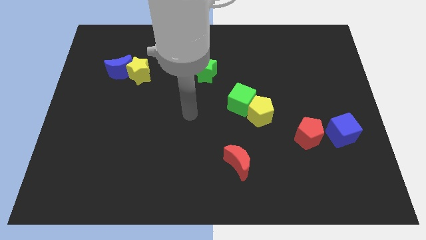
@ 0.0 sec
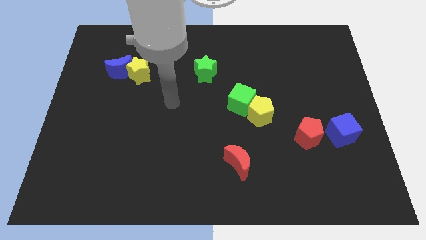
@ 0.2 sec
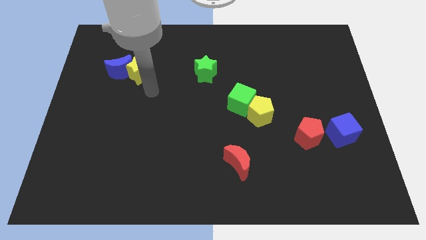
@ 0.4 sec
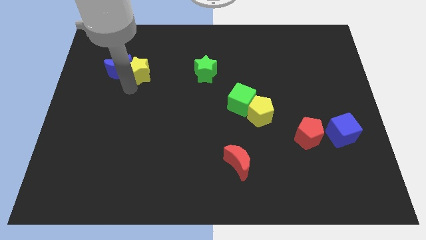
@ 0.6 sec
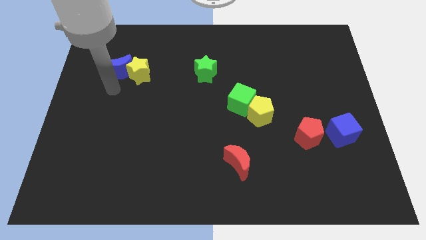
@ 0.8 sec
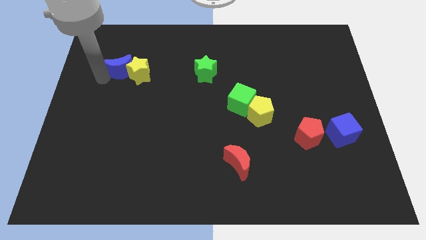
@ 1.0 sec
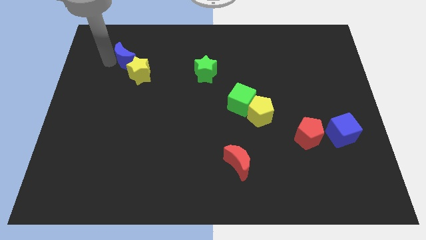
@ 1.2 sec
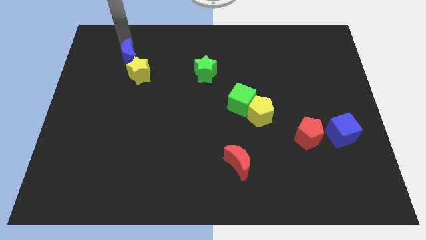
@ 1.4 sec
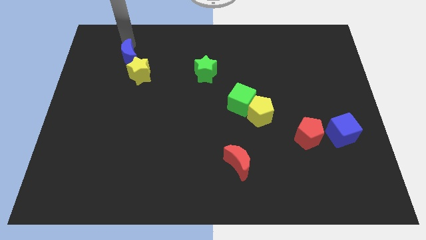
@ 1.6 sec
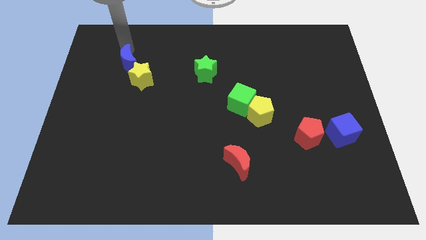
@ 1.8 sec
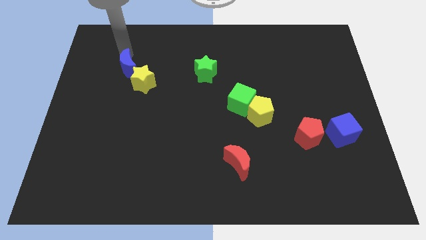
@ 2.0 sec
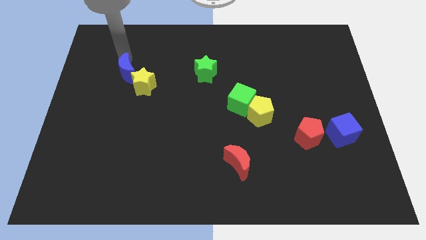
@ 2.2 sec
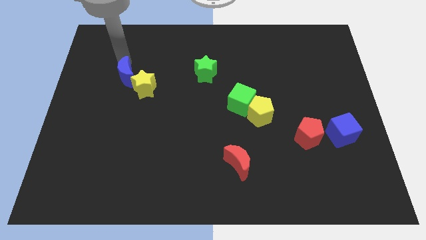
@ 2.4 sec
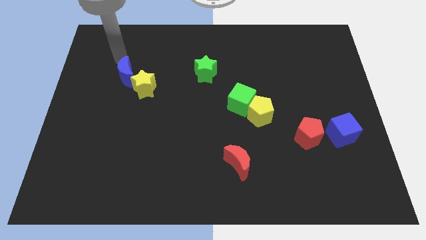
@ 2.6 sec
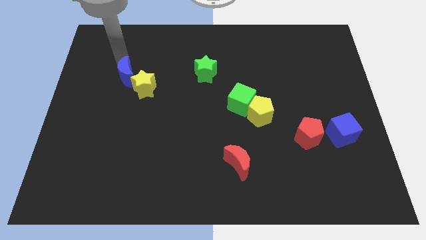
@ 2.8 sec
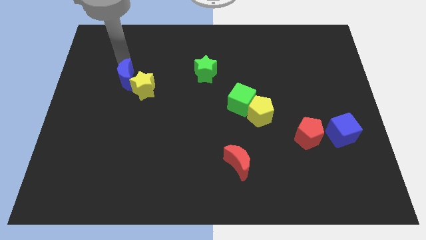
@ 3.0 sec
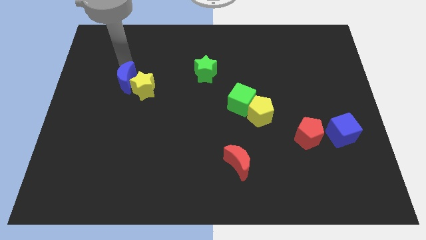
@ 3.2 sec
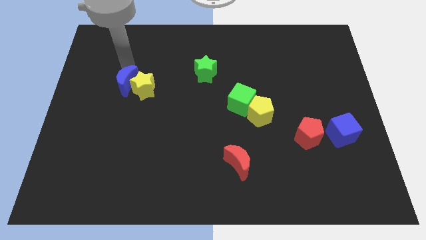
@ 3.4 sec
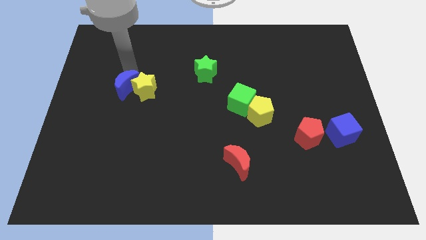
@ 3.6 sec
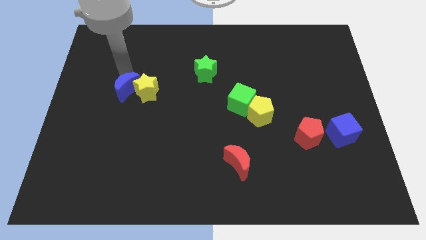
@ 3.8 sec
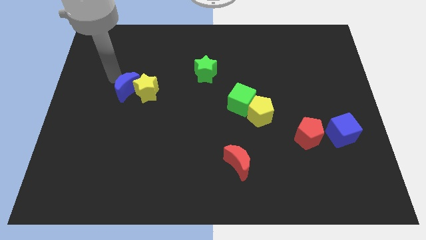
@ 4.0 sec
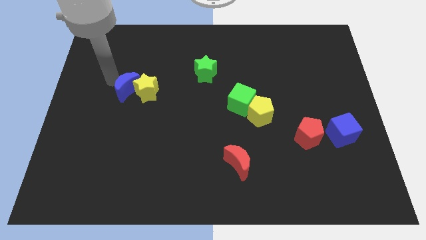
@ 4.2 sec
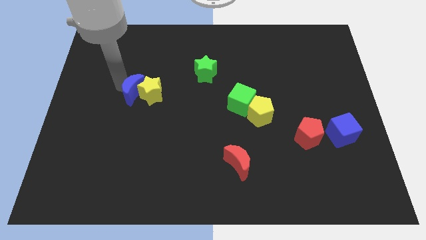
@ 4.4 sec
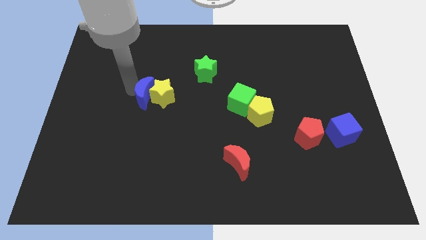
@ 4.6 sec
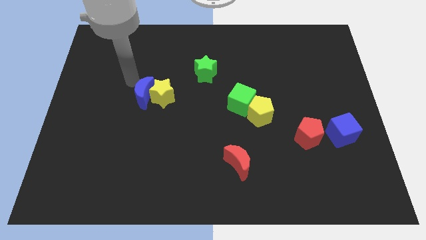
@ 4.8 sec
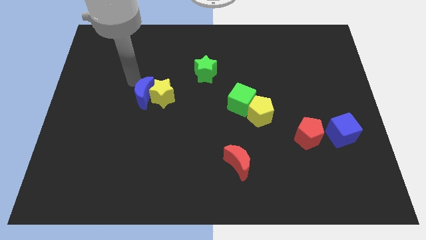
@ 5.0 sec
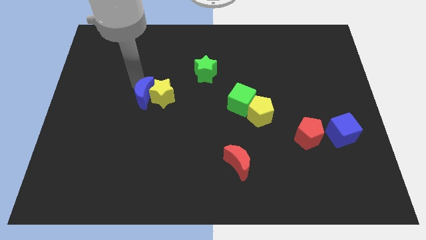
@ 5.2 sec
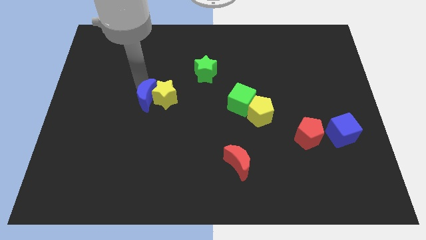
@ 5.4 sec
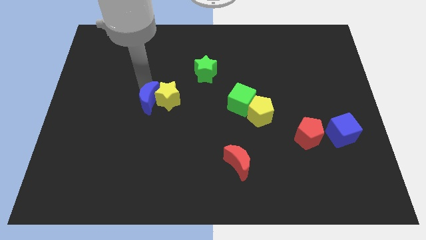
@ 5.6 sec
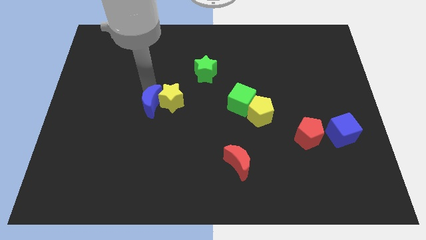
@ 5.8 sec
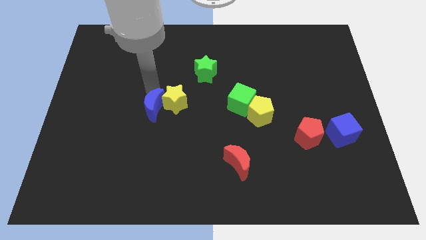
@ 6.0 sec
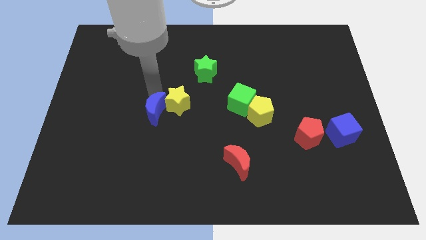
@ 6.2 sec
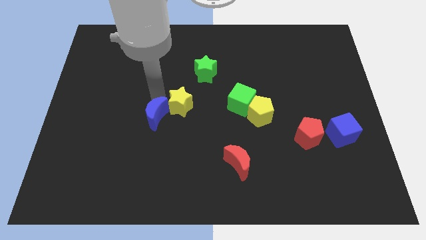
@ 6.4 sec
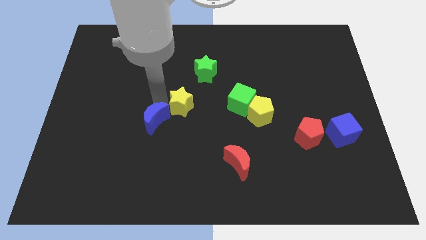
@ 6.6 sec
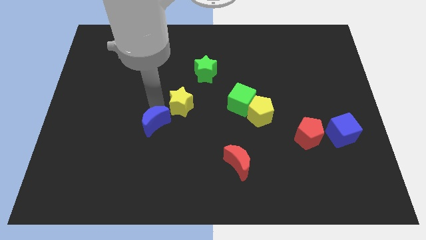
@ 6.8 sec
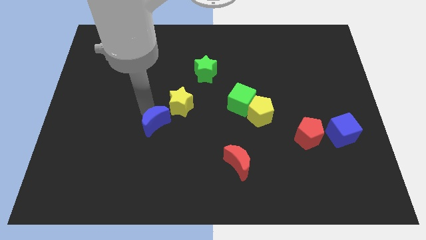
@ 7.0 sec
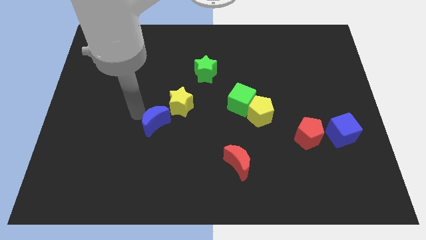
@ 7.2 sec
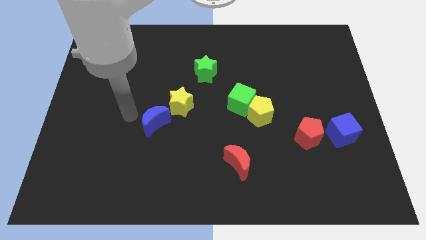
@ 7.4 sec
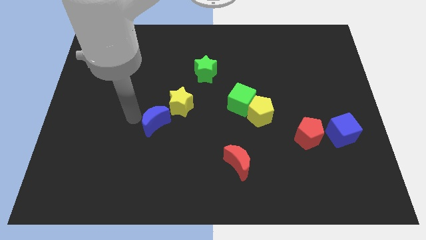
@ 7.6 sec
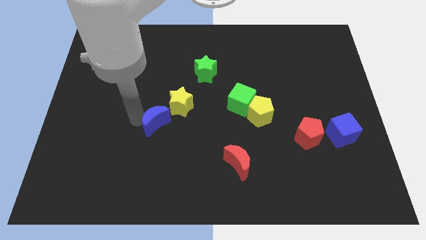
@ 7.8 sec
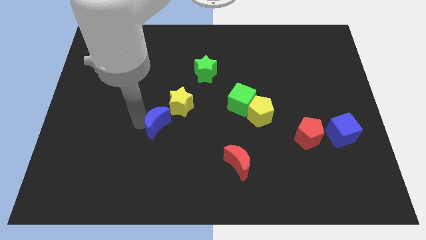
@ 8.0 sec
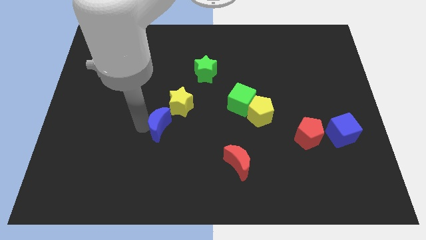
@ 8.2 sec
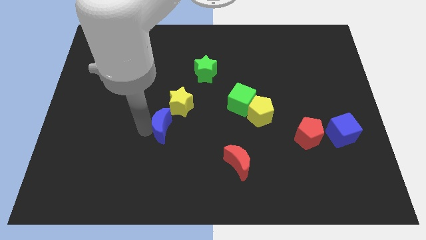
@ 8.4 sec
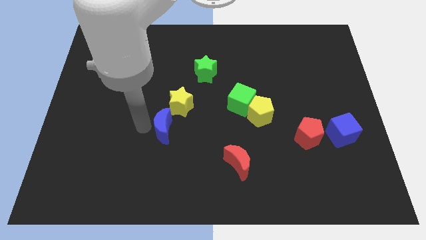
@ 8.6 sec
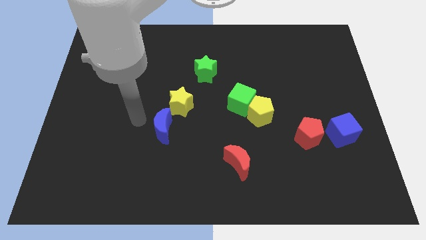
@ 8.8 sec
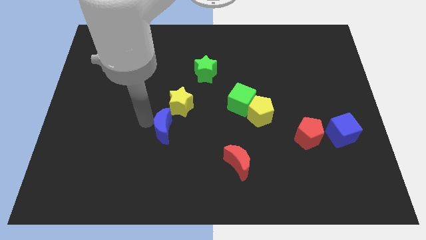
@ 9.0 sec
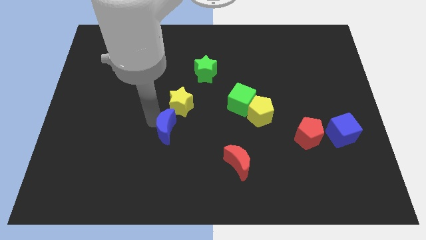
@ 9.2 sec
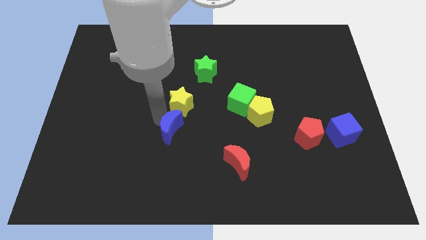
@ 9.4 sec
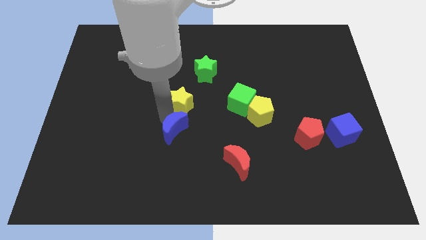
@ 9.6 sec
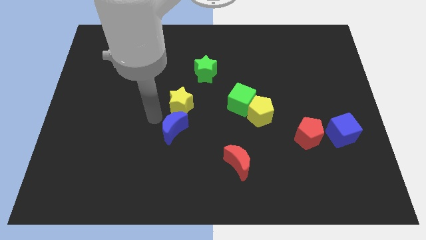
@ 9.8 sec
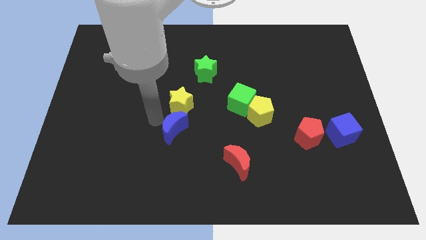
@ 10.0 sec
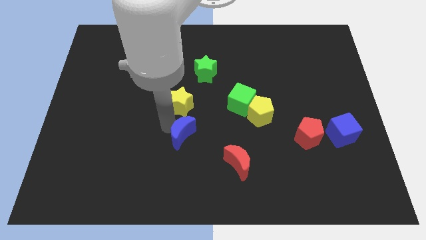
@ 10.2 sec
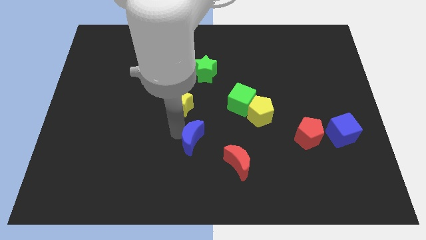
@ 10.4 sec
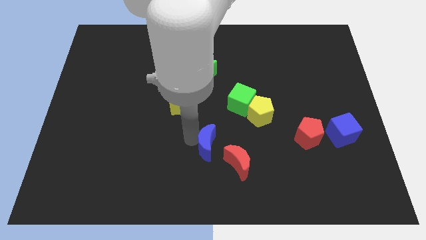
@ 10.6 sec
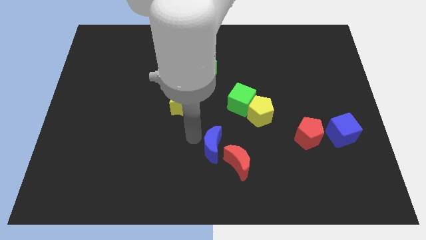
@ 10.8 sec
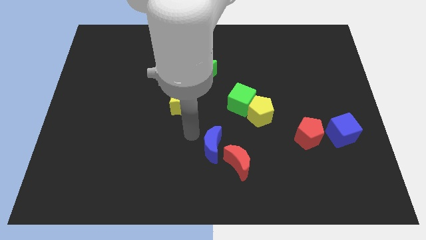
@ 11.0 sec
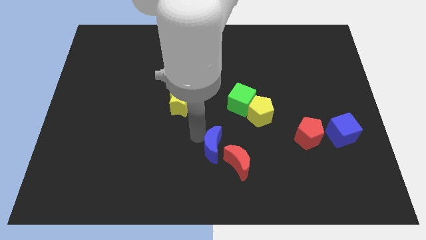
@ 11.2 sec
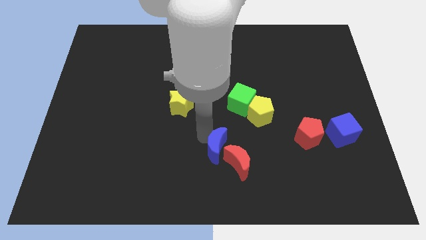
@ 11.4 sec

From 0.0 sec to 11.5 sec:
slide the blue moon to the red moon

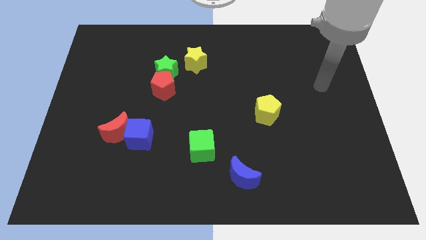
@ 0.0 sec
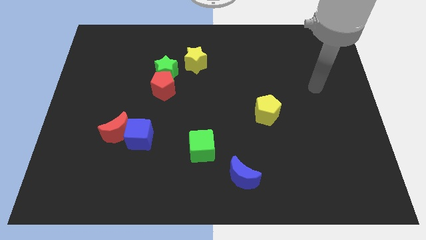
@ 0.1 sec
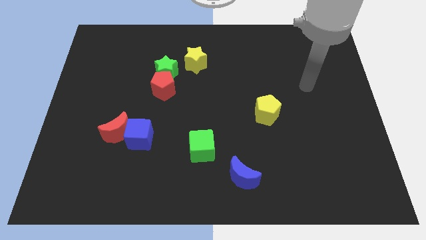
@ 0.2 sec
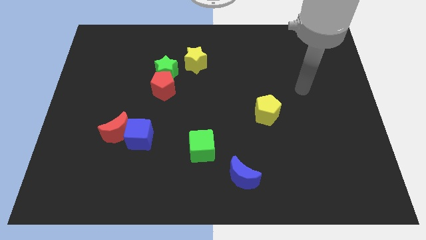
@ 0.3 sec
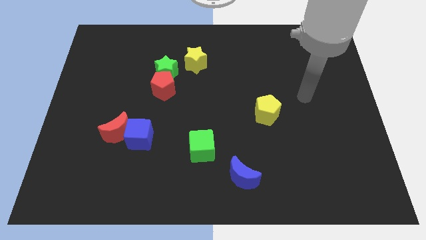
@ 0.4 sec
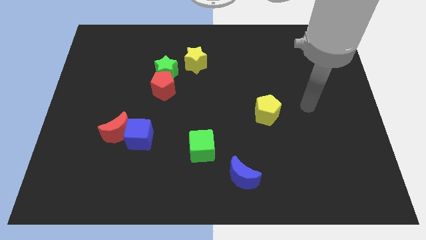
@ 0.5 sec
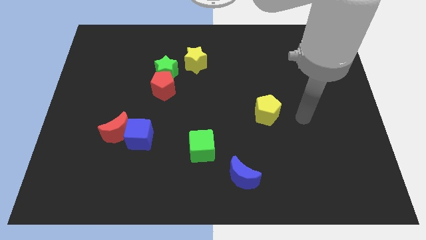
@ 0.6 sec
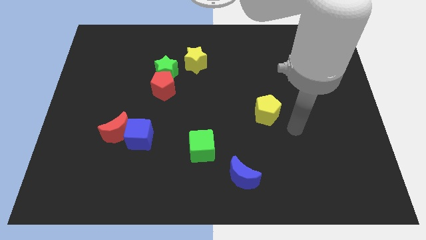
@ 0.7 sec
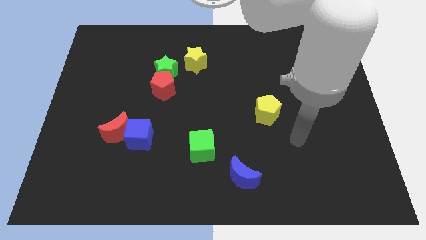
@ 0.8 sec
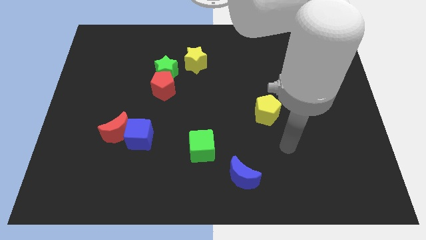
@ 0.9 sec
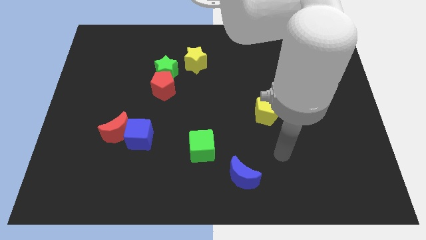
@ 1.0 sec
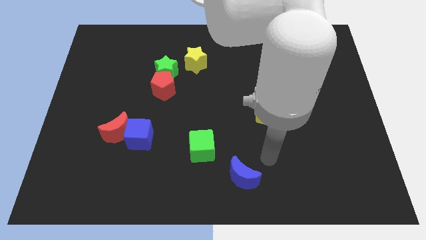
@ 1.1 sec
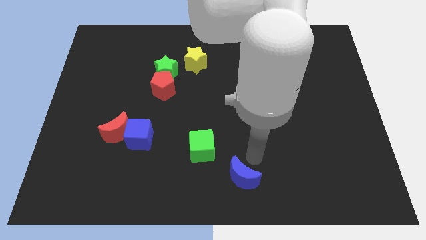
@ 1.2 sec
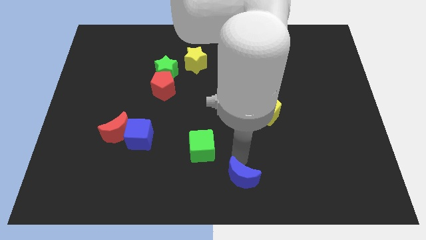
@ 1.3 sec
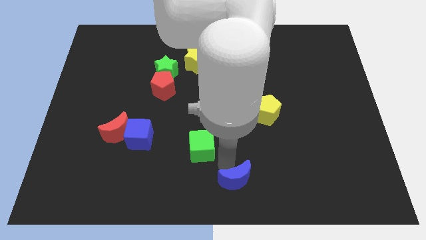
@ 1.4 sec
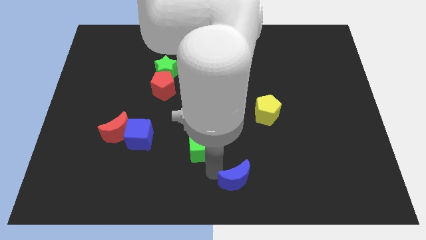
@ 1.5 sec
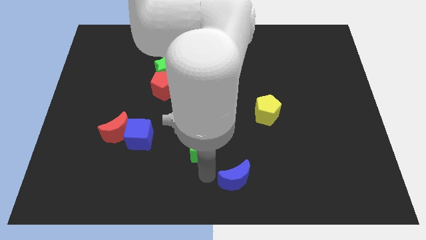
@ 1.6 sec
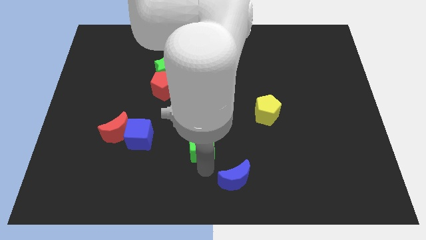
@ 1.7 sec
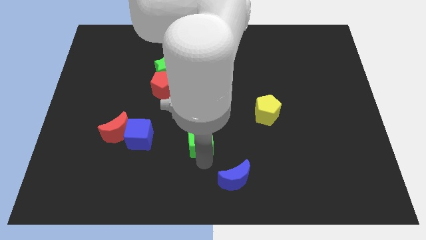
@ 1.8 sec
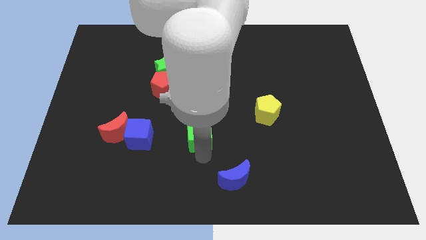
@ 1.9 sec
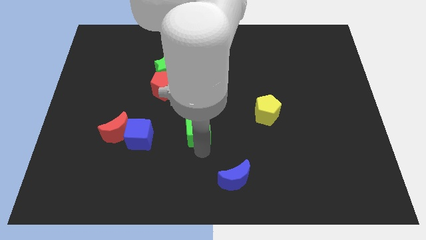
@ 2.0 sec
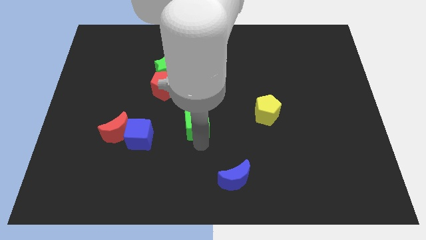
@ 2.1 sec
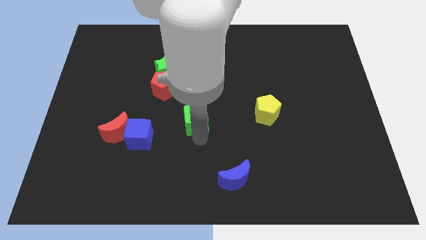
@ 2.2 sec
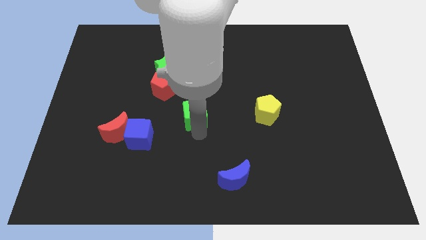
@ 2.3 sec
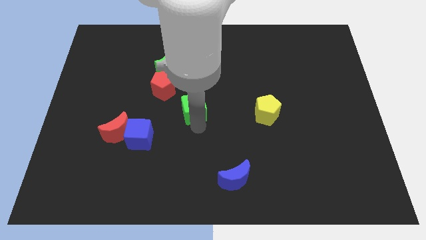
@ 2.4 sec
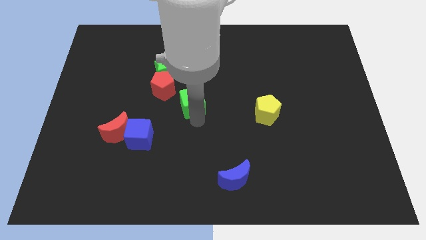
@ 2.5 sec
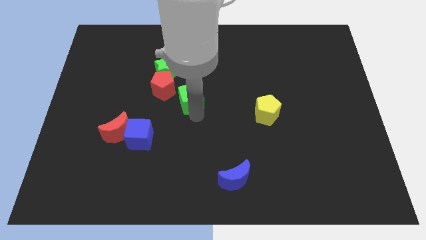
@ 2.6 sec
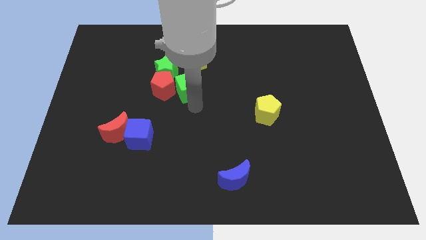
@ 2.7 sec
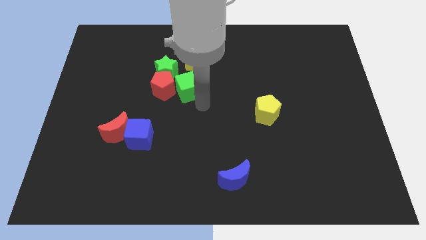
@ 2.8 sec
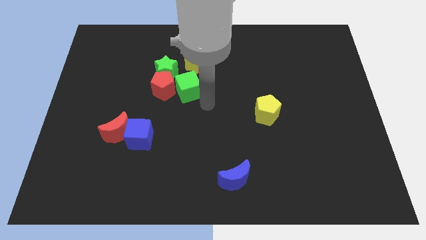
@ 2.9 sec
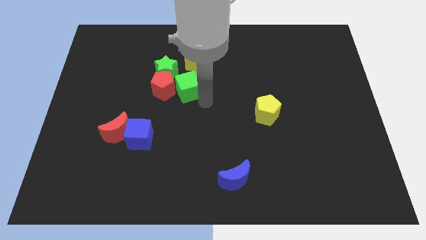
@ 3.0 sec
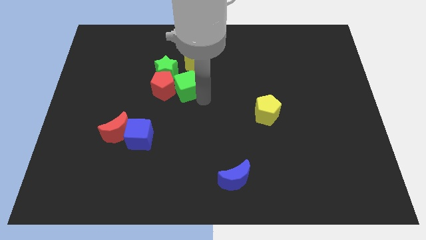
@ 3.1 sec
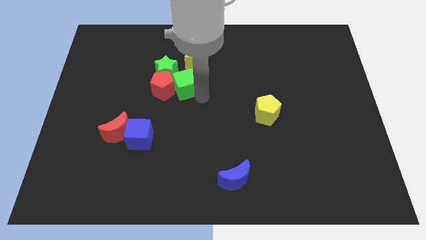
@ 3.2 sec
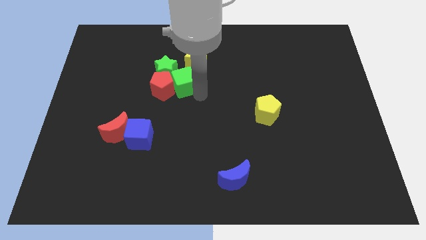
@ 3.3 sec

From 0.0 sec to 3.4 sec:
slide the green cube next to the green star
